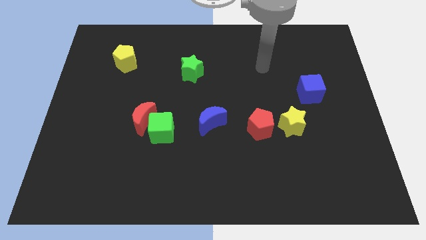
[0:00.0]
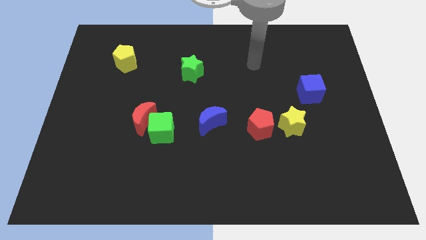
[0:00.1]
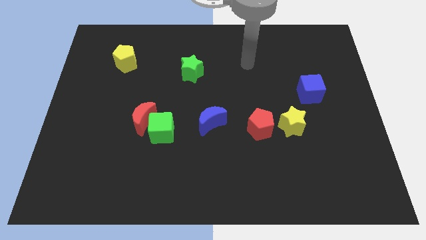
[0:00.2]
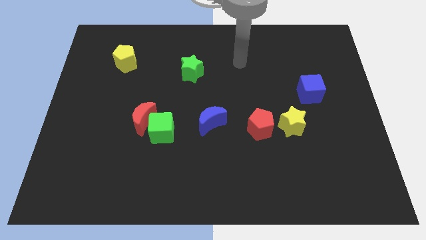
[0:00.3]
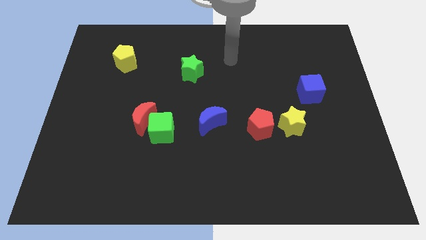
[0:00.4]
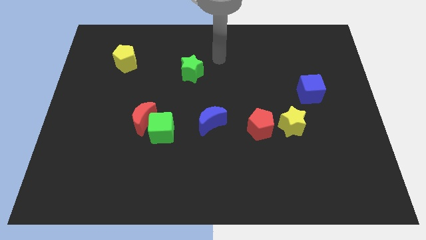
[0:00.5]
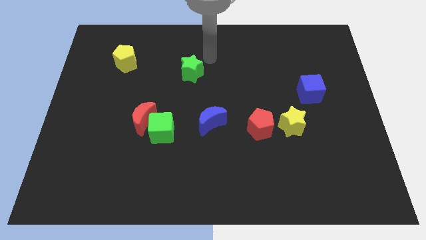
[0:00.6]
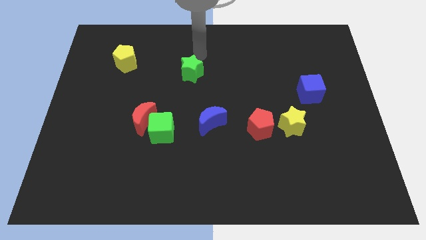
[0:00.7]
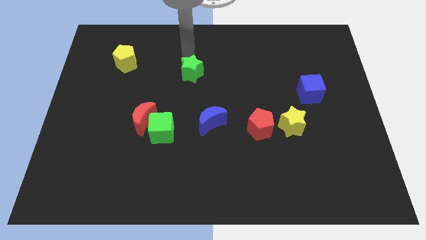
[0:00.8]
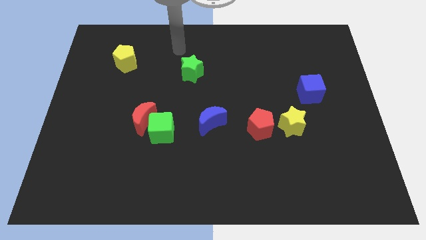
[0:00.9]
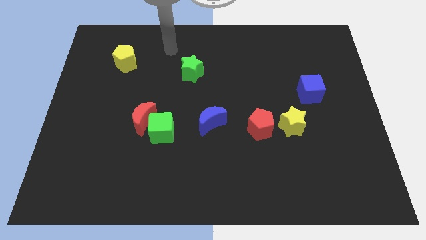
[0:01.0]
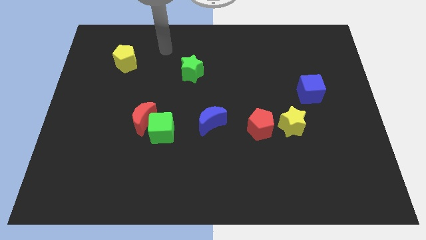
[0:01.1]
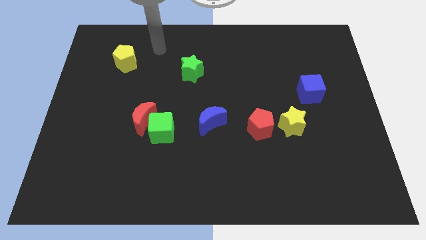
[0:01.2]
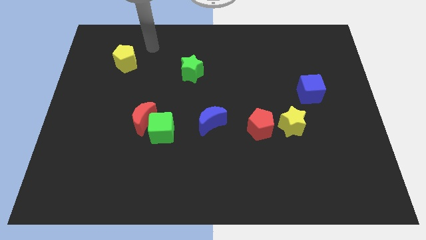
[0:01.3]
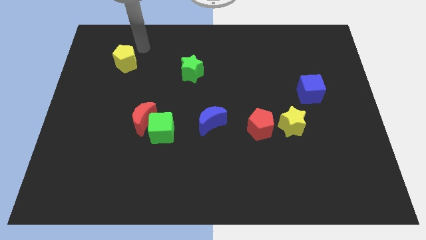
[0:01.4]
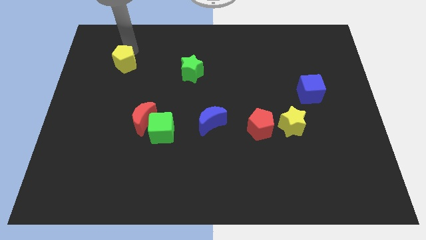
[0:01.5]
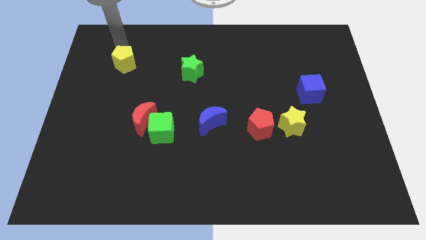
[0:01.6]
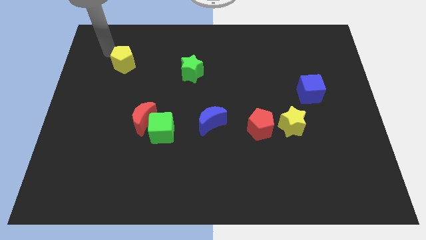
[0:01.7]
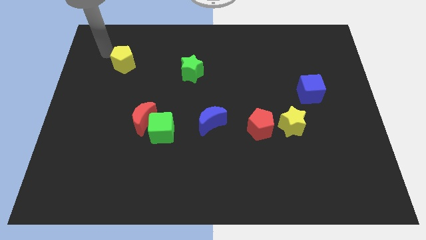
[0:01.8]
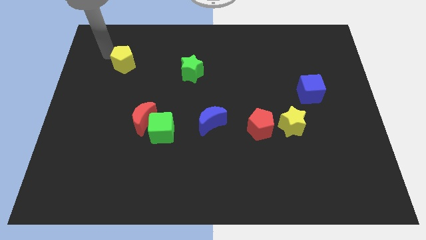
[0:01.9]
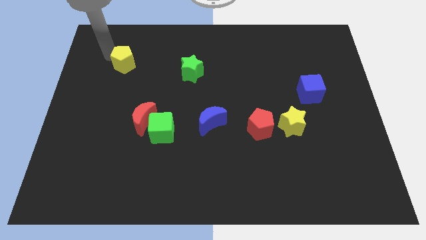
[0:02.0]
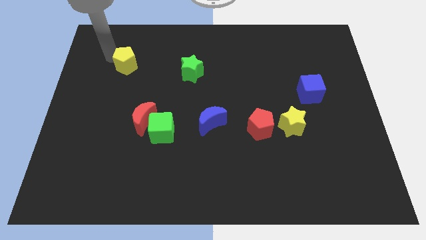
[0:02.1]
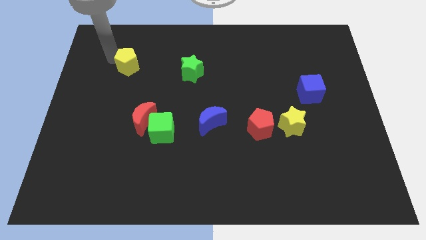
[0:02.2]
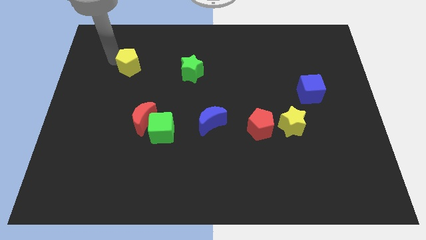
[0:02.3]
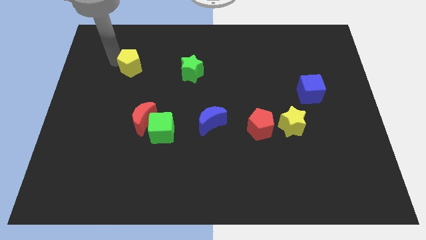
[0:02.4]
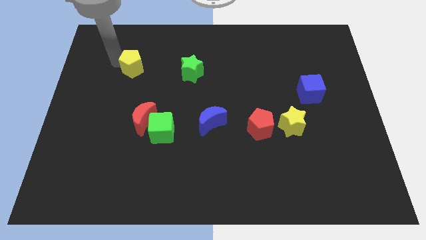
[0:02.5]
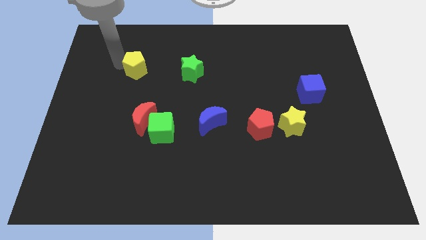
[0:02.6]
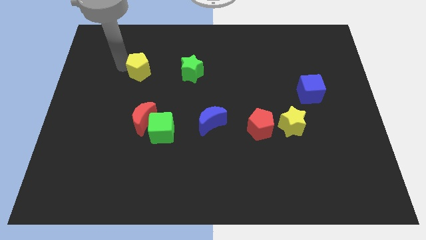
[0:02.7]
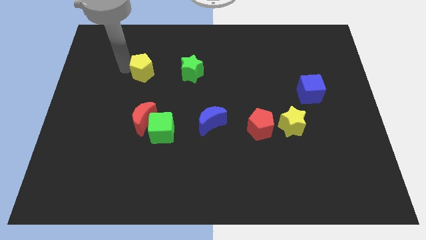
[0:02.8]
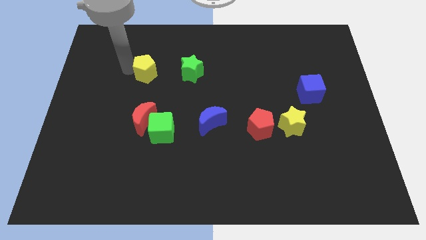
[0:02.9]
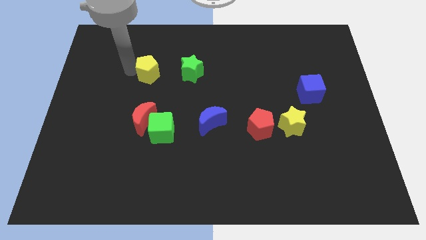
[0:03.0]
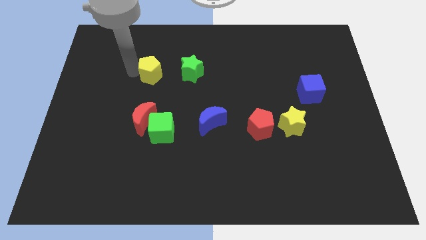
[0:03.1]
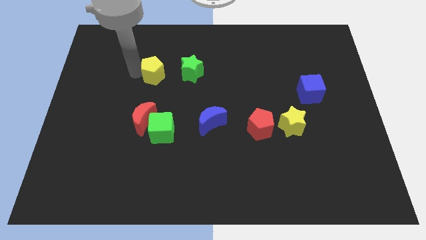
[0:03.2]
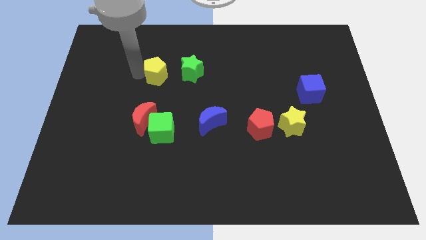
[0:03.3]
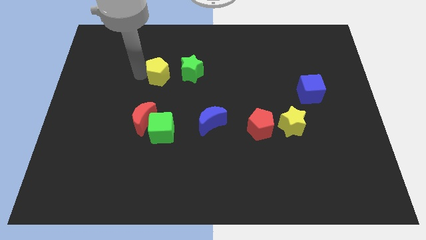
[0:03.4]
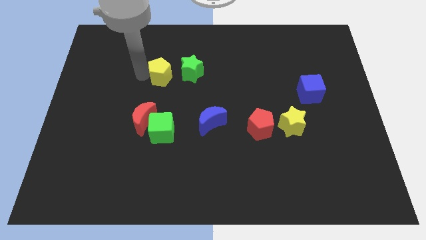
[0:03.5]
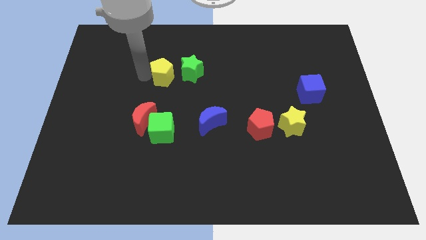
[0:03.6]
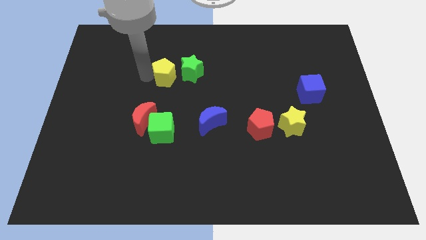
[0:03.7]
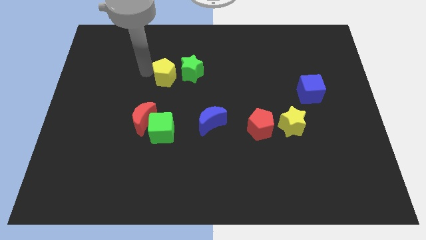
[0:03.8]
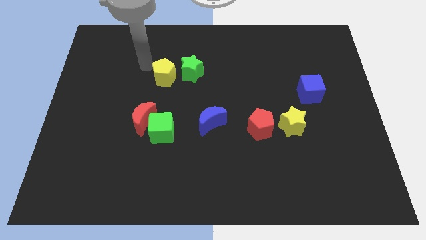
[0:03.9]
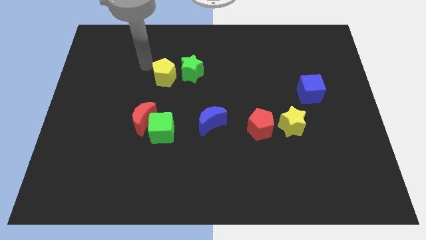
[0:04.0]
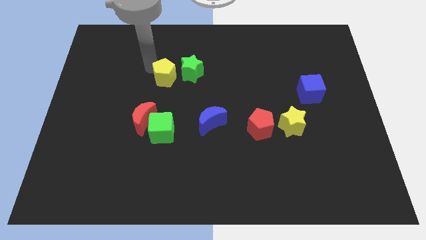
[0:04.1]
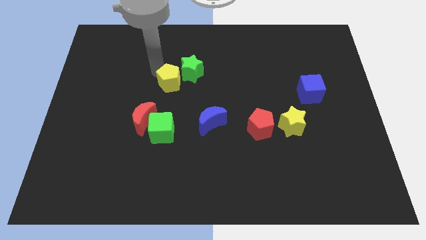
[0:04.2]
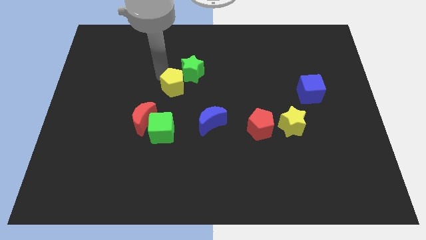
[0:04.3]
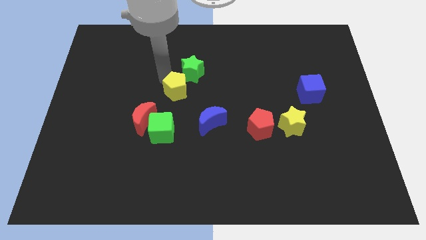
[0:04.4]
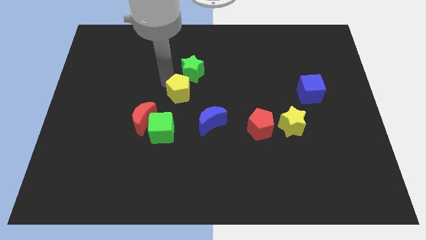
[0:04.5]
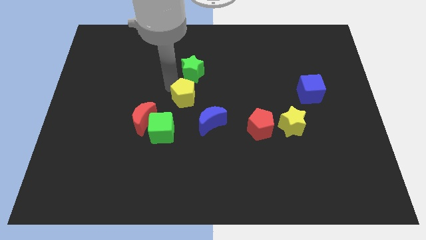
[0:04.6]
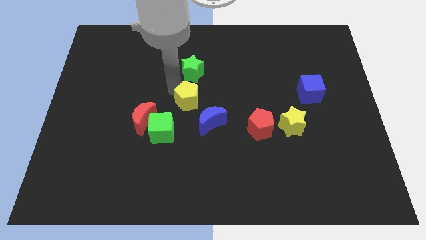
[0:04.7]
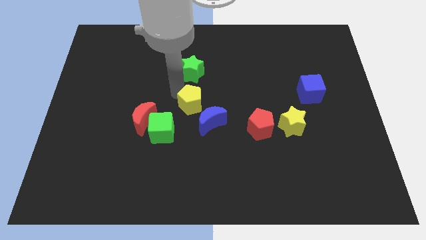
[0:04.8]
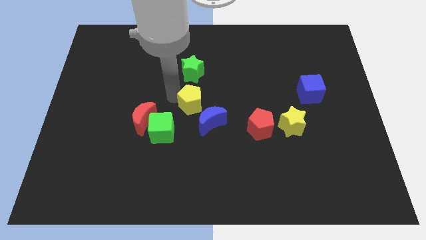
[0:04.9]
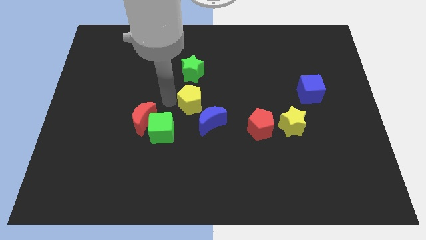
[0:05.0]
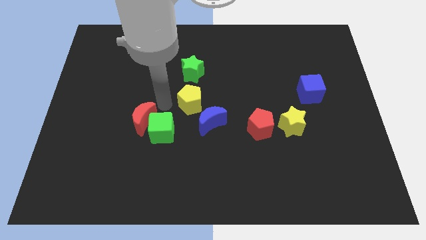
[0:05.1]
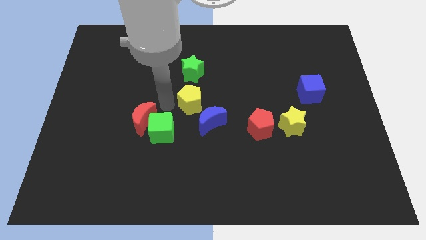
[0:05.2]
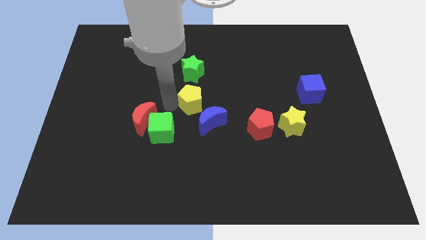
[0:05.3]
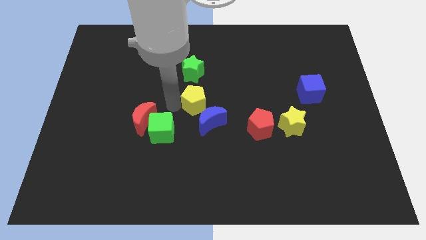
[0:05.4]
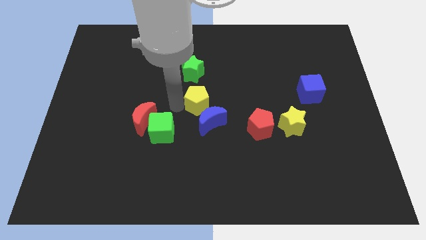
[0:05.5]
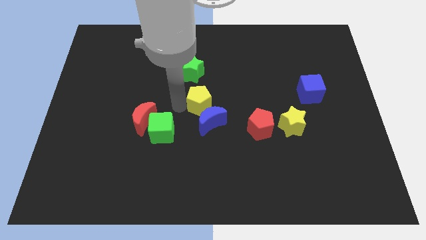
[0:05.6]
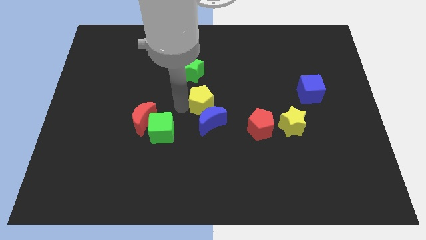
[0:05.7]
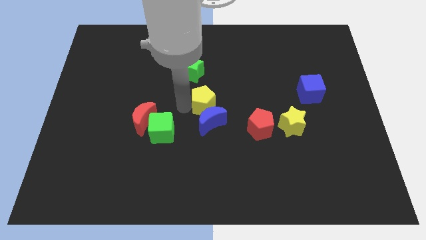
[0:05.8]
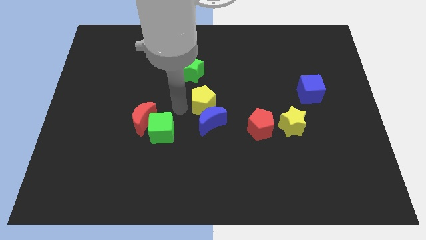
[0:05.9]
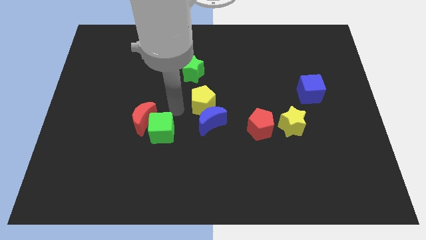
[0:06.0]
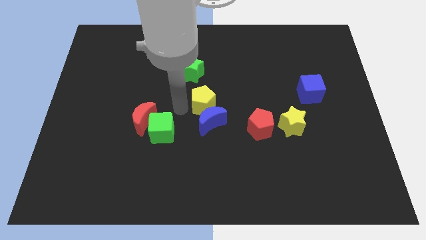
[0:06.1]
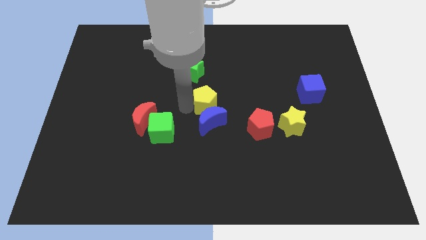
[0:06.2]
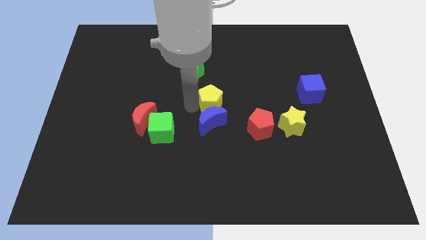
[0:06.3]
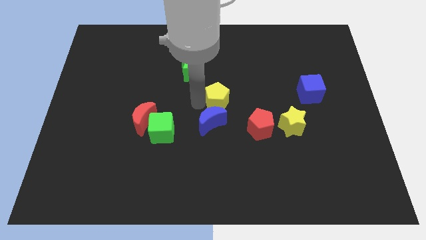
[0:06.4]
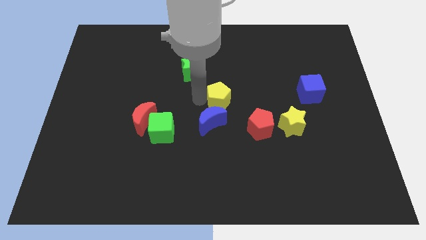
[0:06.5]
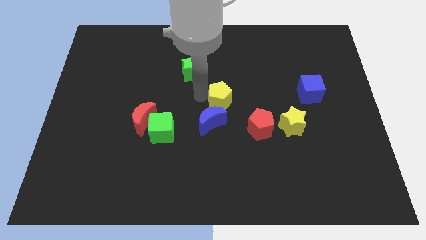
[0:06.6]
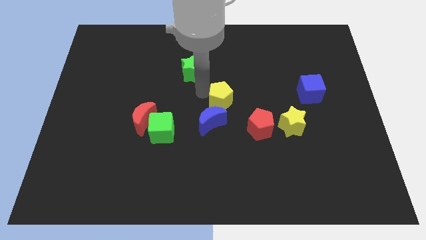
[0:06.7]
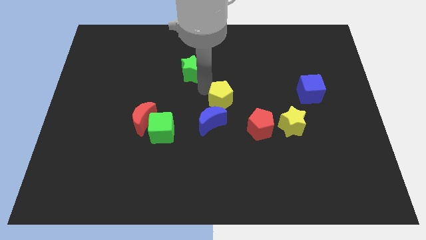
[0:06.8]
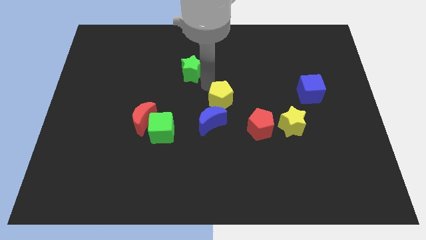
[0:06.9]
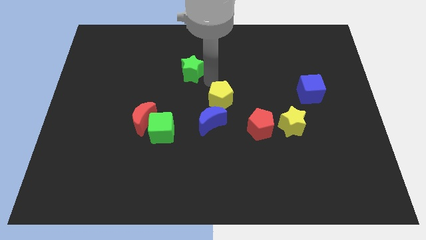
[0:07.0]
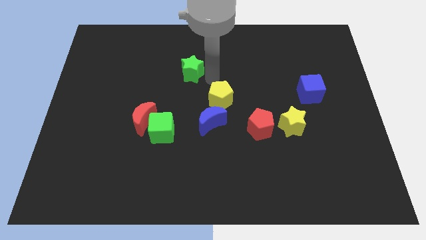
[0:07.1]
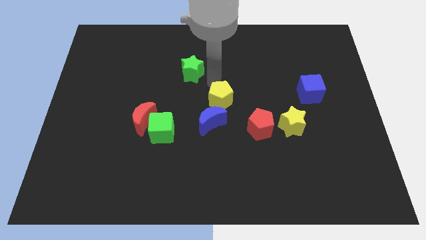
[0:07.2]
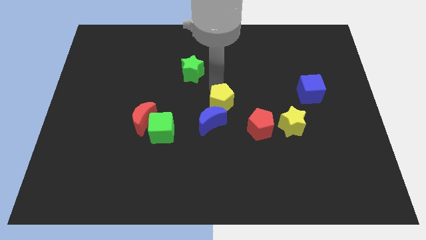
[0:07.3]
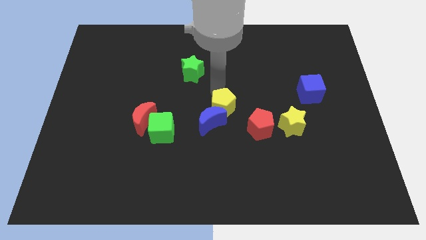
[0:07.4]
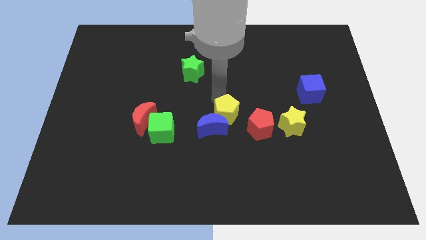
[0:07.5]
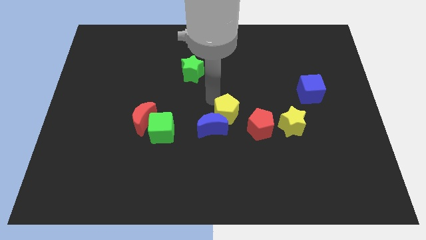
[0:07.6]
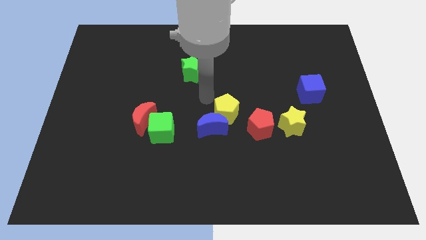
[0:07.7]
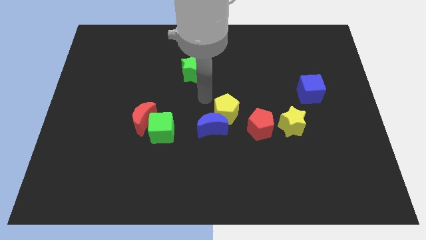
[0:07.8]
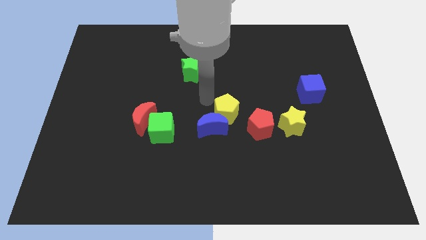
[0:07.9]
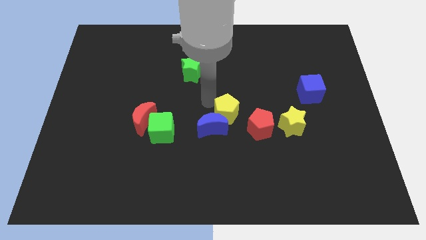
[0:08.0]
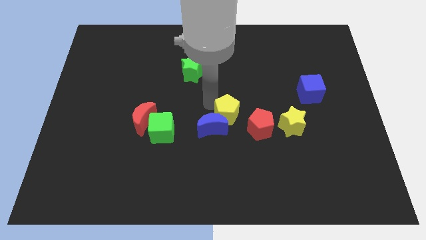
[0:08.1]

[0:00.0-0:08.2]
put the yellow pentagon to the left of the yellow star

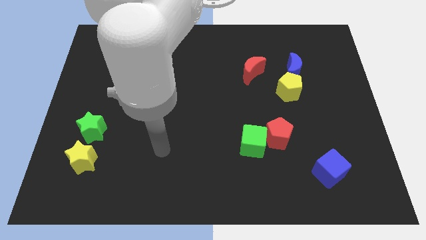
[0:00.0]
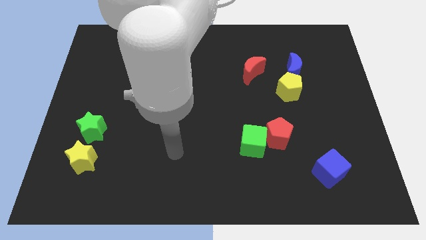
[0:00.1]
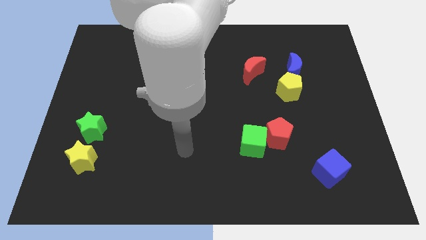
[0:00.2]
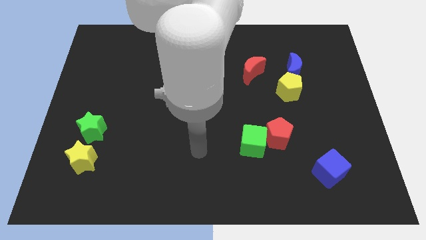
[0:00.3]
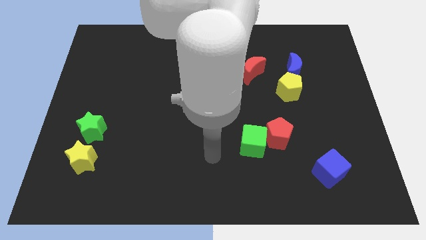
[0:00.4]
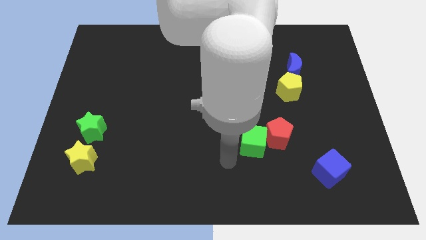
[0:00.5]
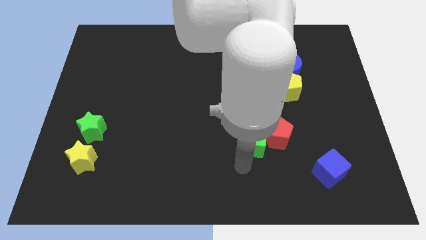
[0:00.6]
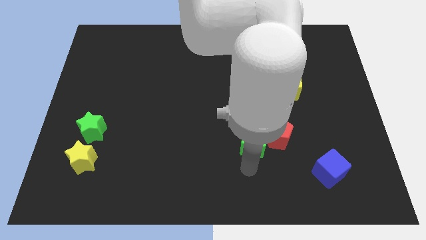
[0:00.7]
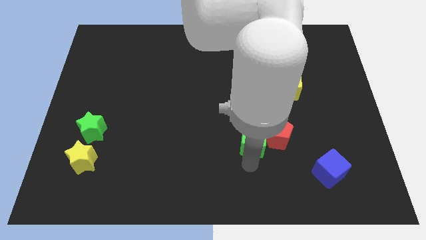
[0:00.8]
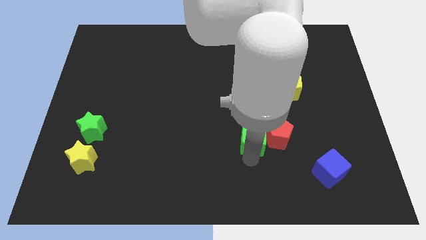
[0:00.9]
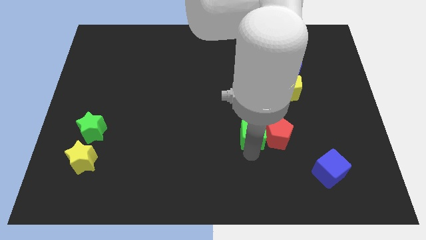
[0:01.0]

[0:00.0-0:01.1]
slide the green cube diagonally up and to the left of the red pentagon
